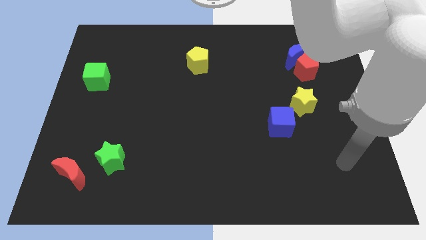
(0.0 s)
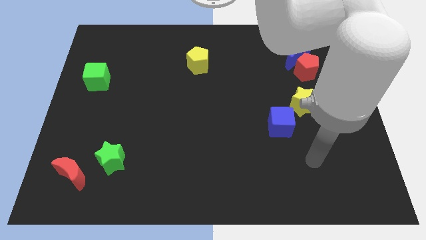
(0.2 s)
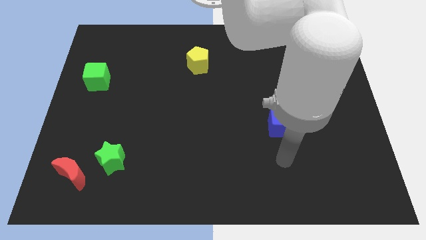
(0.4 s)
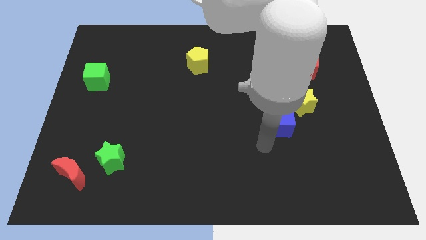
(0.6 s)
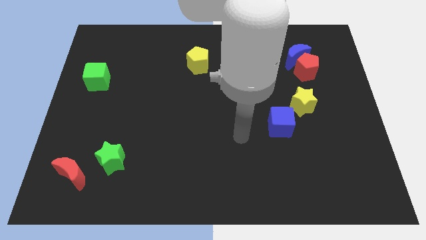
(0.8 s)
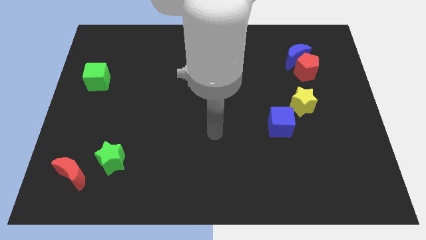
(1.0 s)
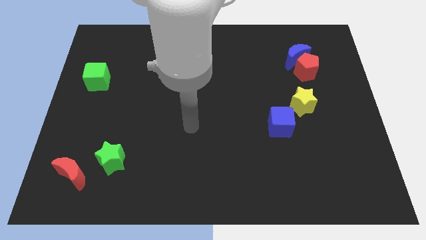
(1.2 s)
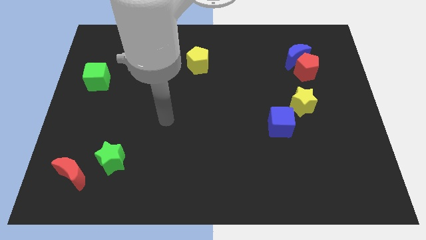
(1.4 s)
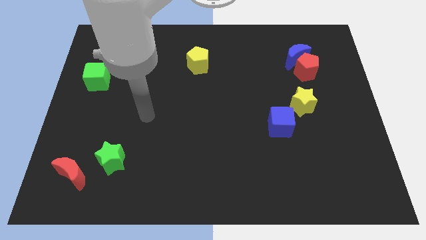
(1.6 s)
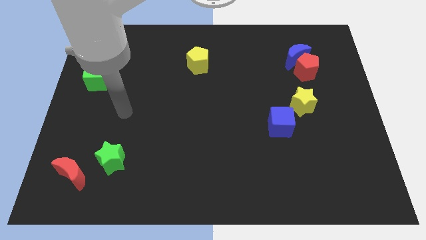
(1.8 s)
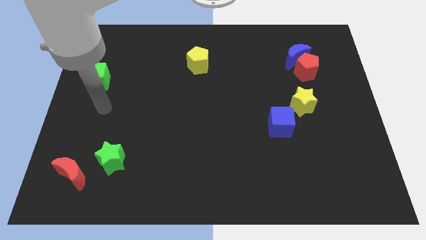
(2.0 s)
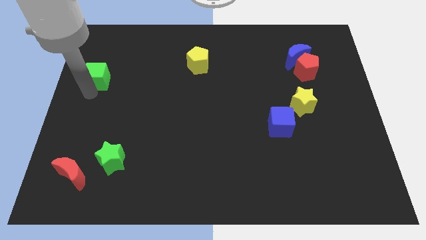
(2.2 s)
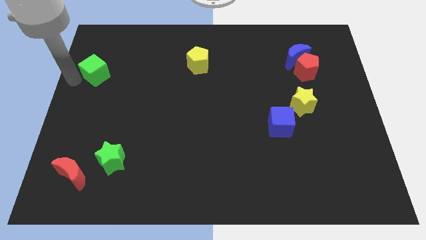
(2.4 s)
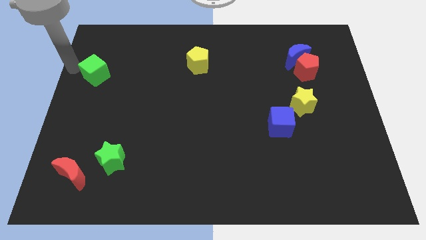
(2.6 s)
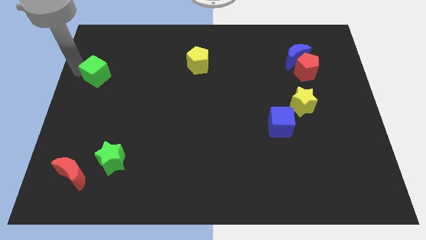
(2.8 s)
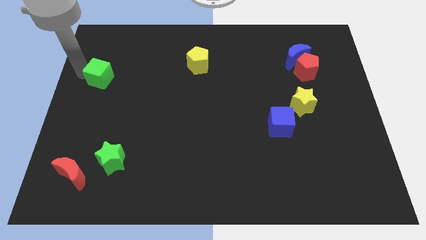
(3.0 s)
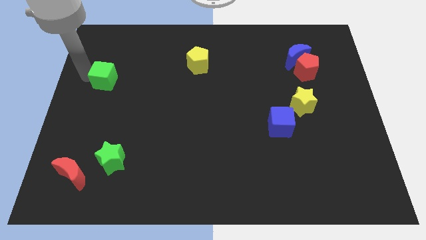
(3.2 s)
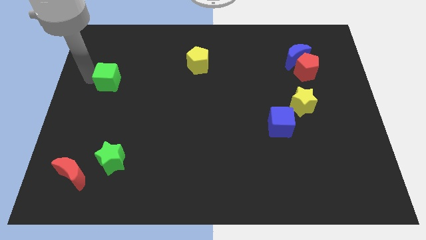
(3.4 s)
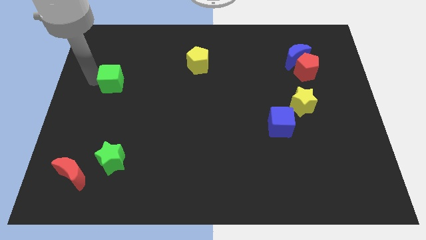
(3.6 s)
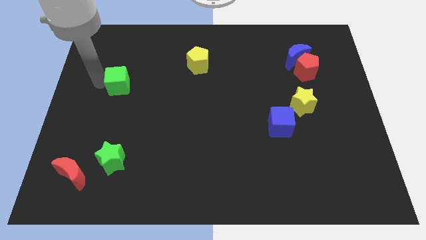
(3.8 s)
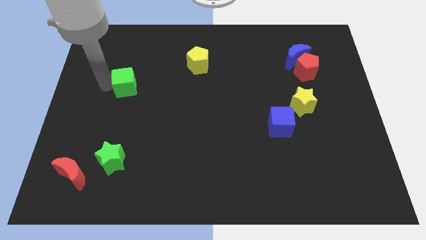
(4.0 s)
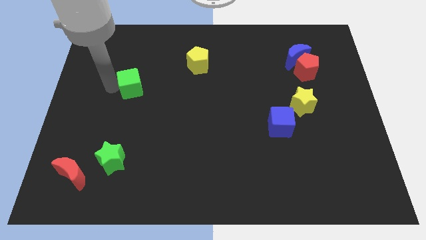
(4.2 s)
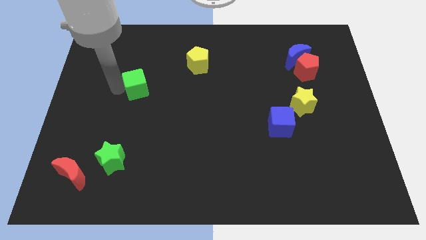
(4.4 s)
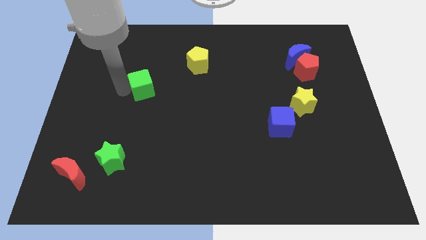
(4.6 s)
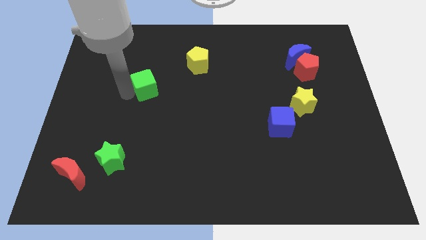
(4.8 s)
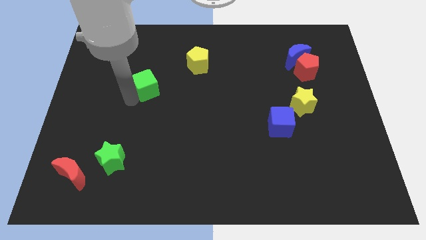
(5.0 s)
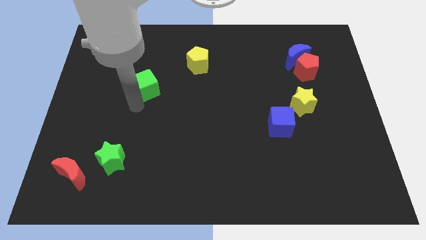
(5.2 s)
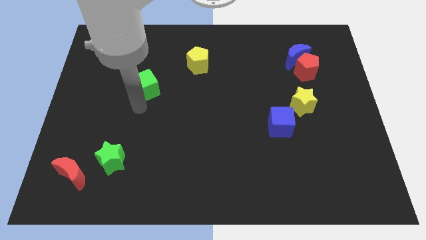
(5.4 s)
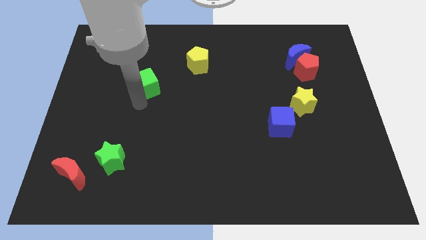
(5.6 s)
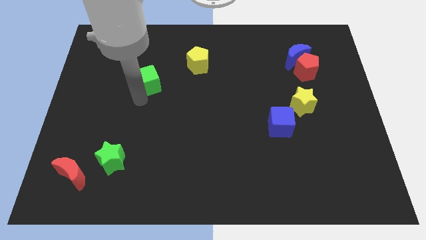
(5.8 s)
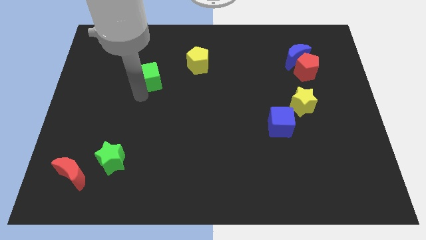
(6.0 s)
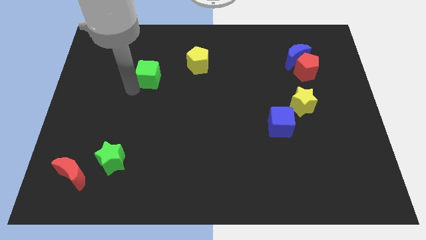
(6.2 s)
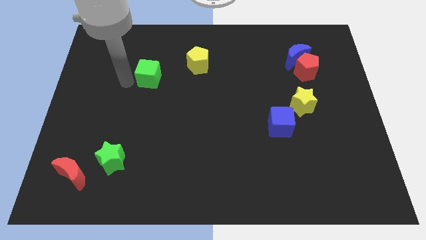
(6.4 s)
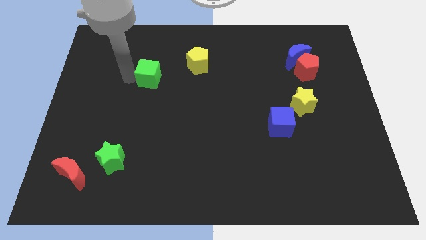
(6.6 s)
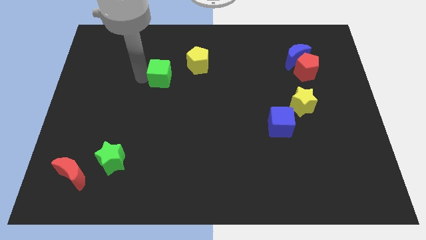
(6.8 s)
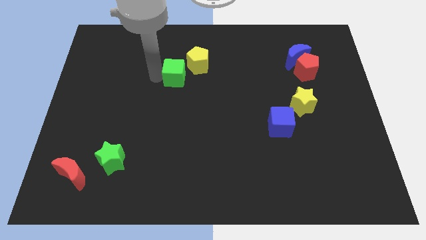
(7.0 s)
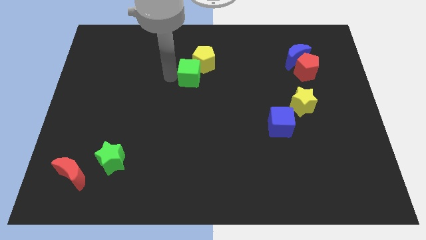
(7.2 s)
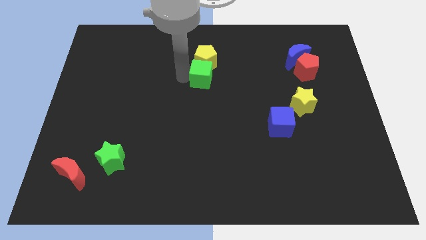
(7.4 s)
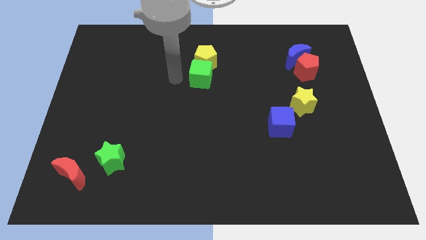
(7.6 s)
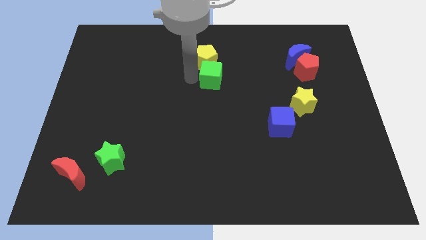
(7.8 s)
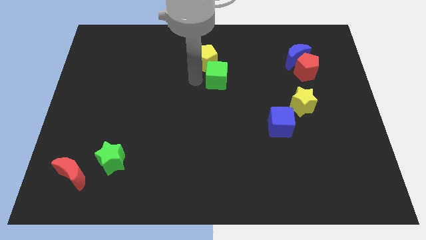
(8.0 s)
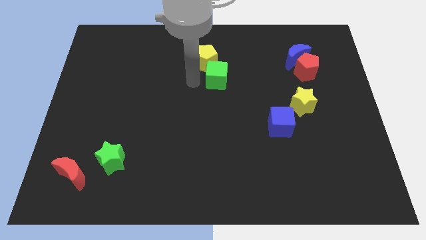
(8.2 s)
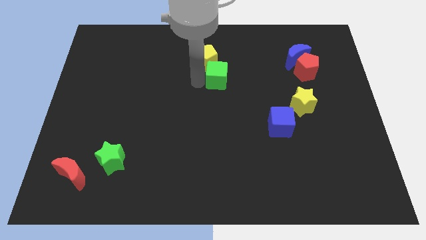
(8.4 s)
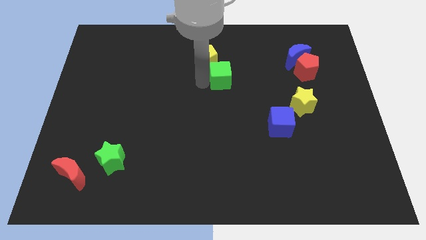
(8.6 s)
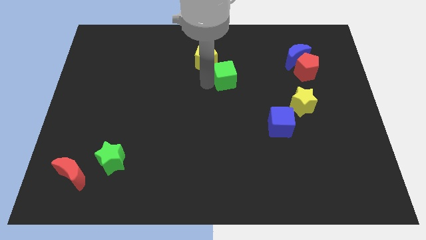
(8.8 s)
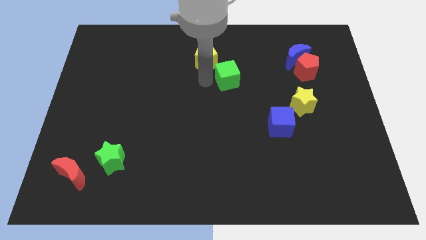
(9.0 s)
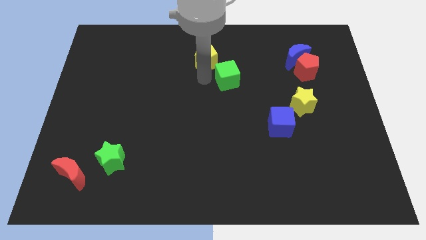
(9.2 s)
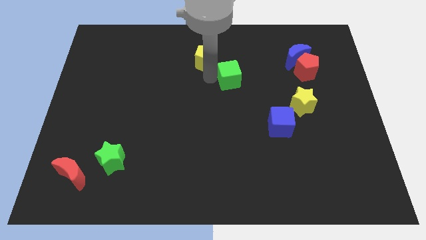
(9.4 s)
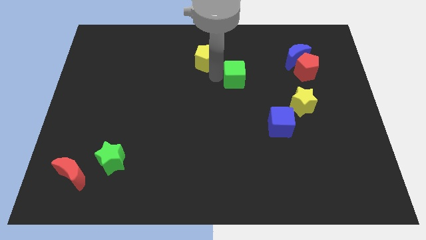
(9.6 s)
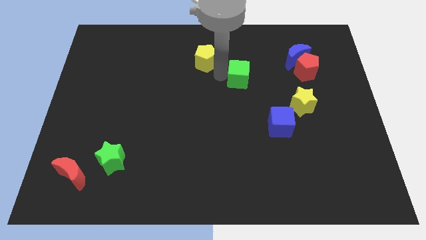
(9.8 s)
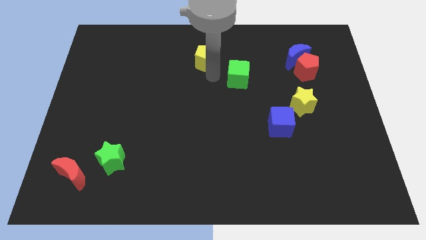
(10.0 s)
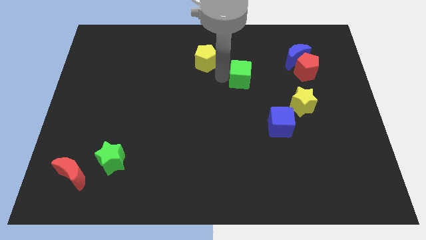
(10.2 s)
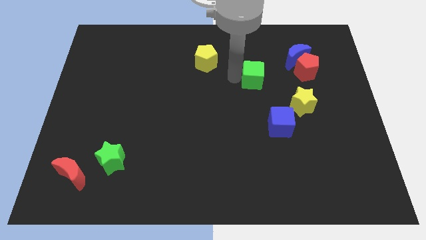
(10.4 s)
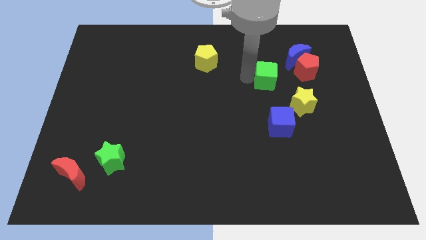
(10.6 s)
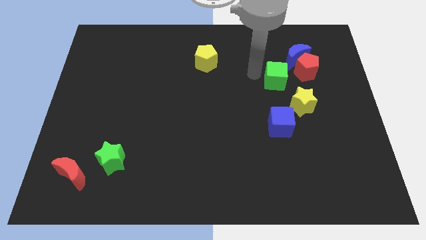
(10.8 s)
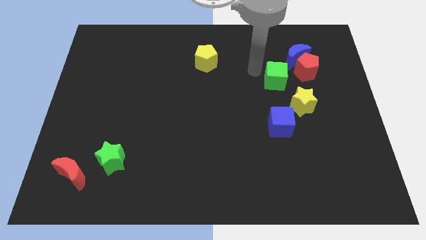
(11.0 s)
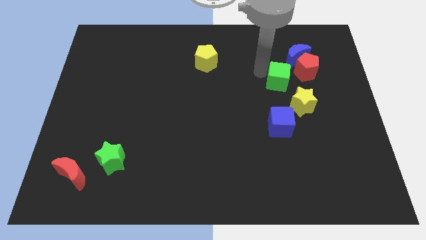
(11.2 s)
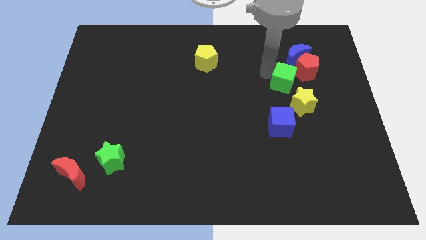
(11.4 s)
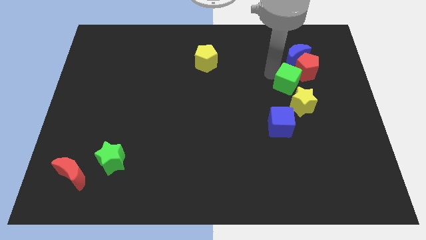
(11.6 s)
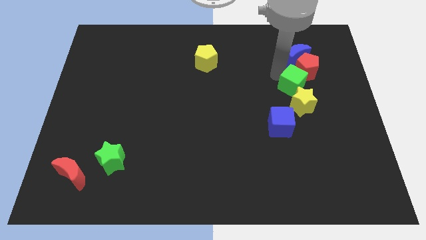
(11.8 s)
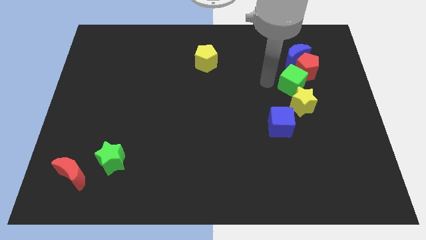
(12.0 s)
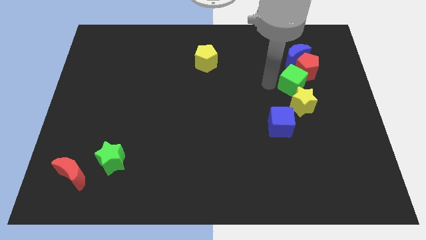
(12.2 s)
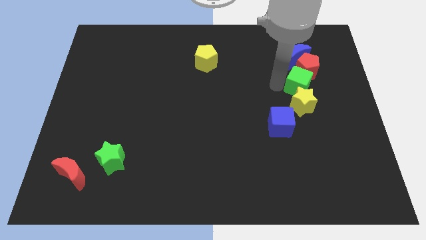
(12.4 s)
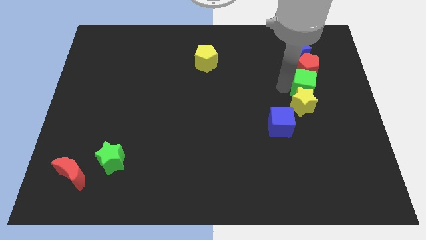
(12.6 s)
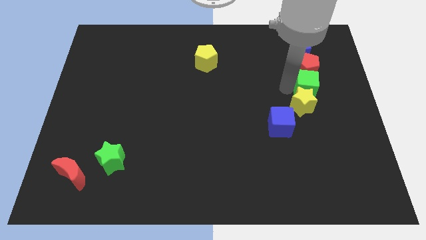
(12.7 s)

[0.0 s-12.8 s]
slide the green cube to the bottom right side of the red pentagon

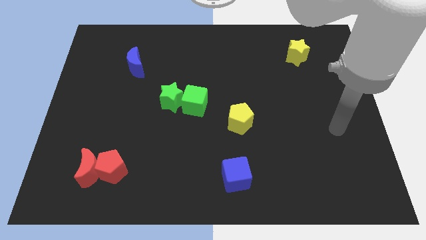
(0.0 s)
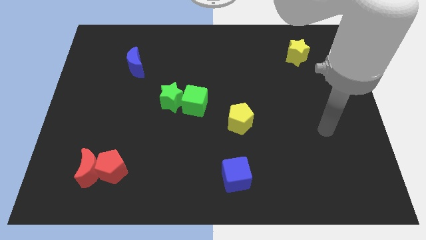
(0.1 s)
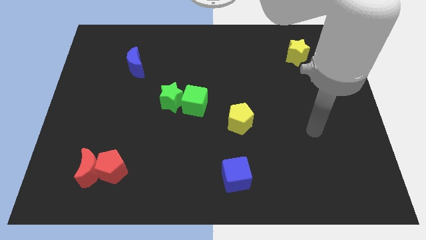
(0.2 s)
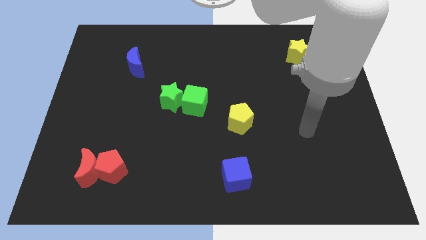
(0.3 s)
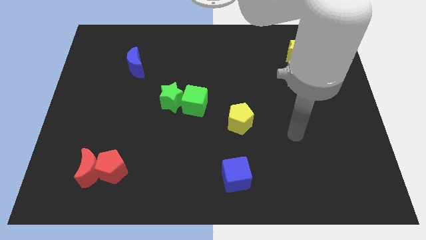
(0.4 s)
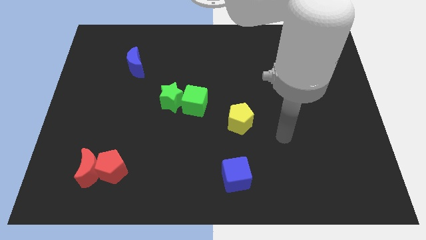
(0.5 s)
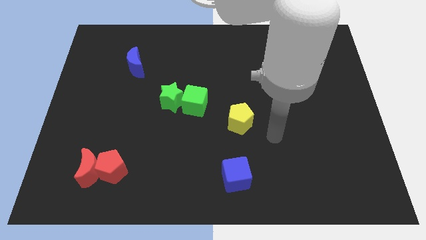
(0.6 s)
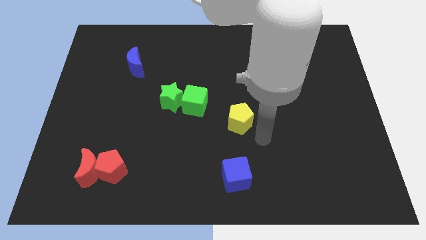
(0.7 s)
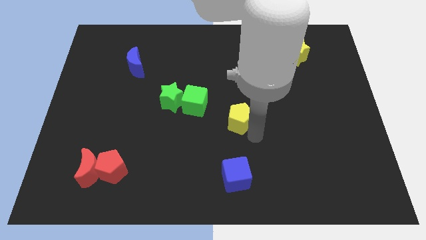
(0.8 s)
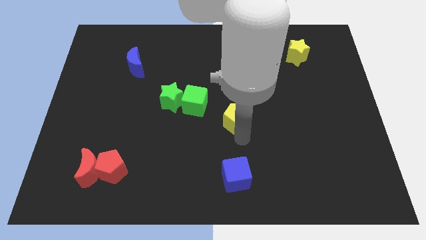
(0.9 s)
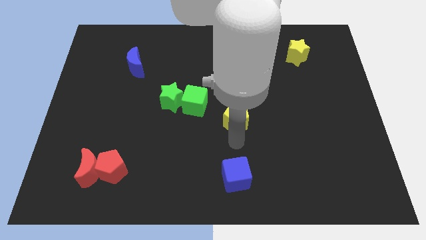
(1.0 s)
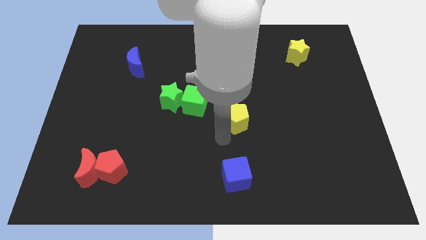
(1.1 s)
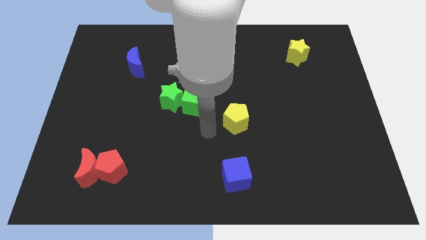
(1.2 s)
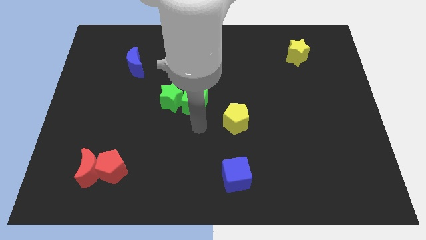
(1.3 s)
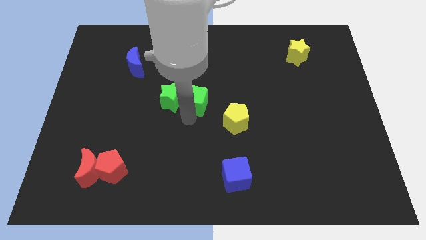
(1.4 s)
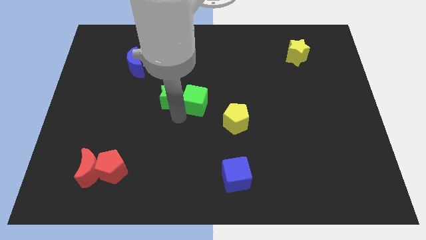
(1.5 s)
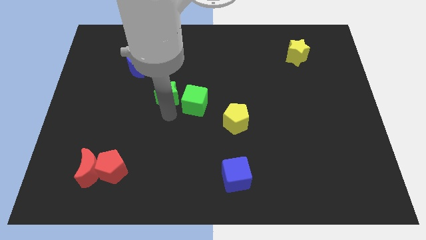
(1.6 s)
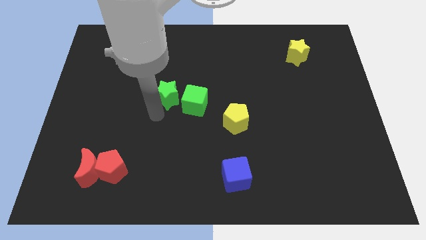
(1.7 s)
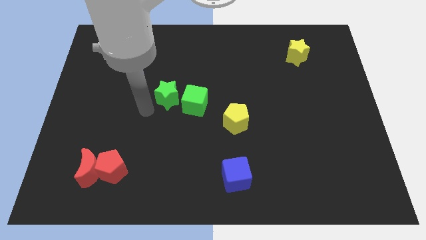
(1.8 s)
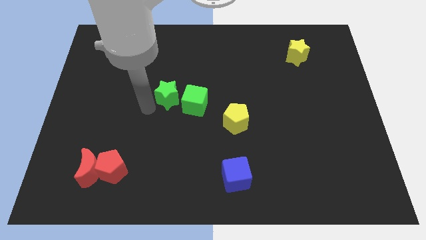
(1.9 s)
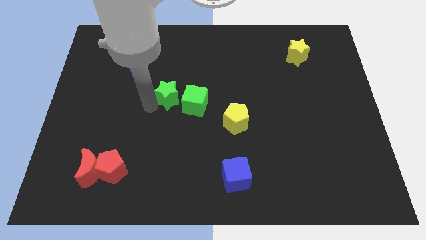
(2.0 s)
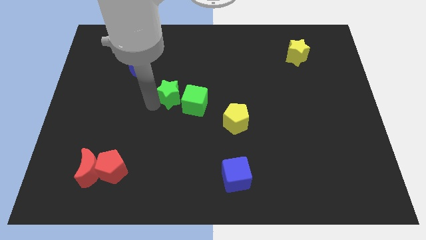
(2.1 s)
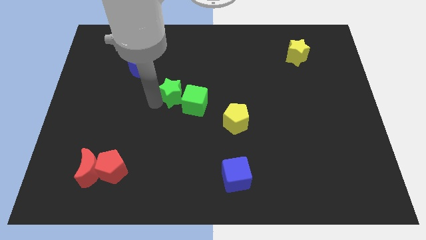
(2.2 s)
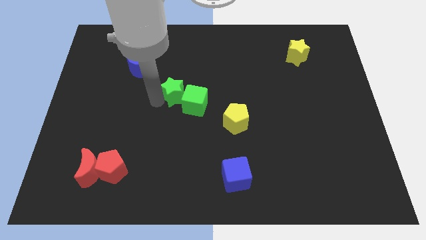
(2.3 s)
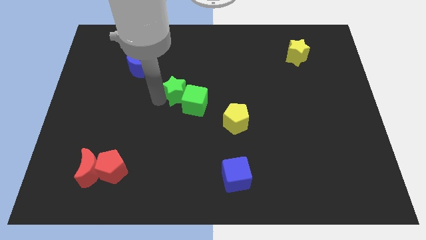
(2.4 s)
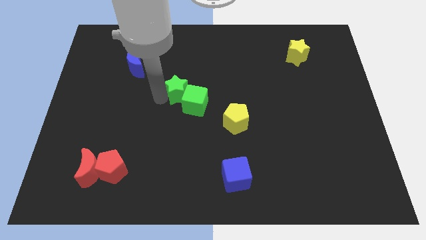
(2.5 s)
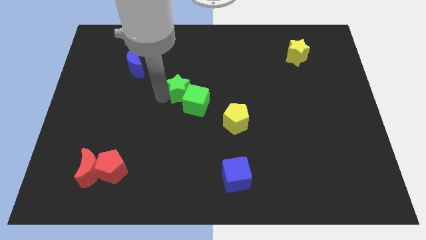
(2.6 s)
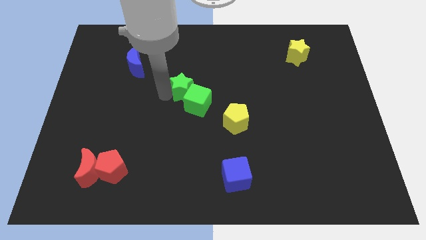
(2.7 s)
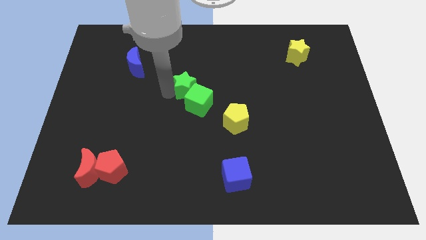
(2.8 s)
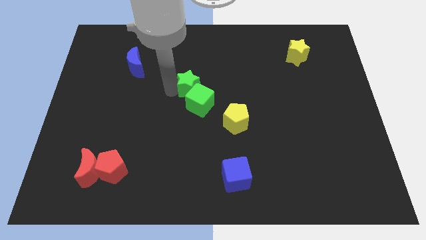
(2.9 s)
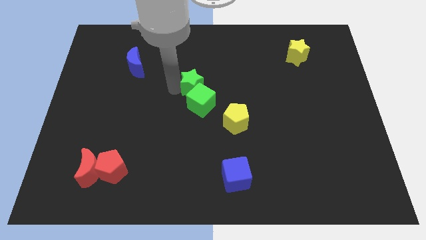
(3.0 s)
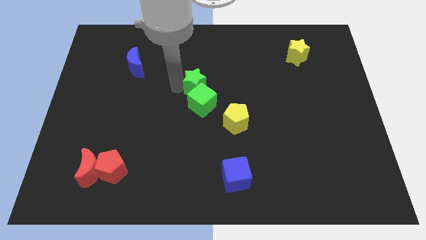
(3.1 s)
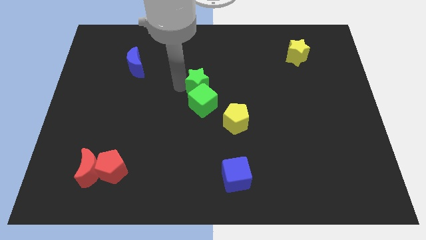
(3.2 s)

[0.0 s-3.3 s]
slide the green star to the top right of the green cube
